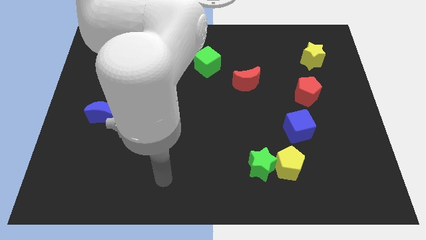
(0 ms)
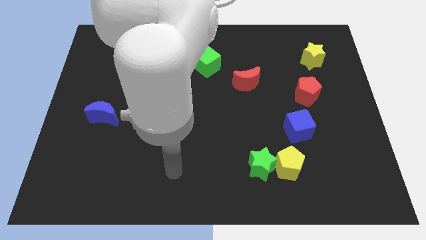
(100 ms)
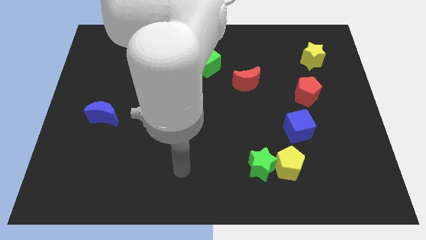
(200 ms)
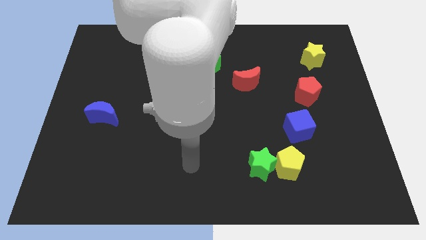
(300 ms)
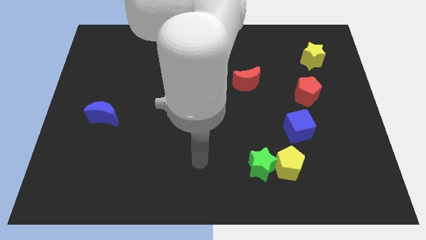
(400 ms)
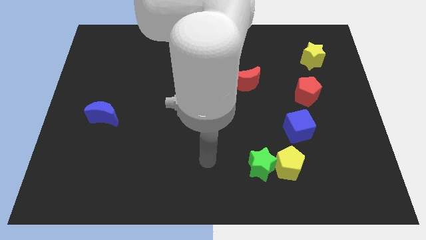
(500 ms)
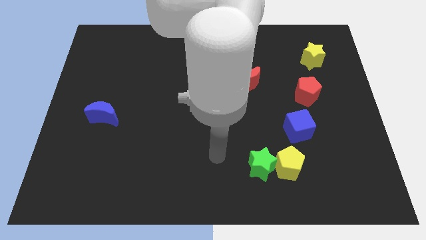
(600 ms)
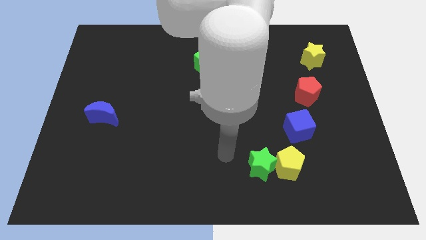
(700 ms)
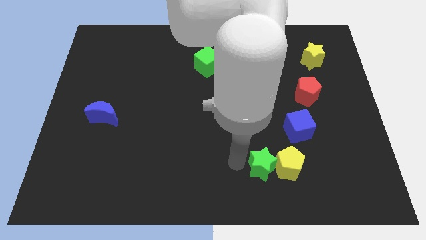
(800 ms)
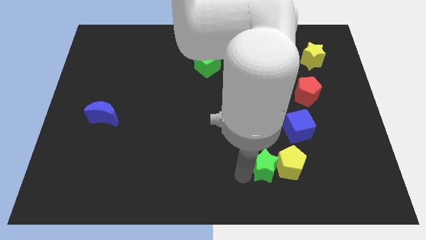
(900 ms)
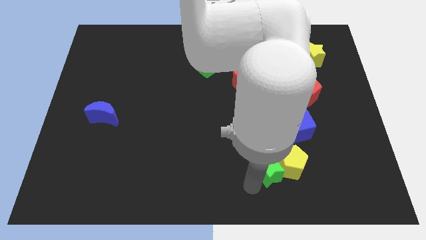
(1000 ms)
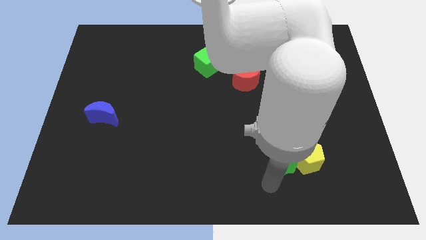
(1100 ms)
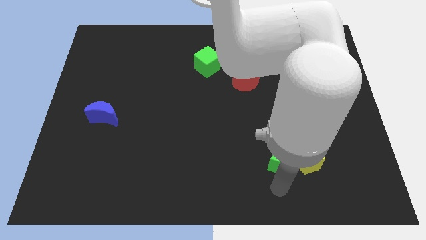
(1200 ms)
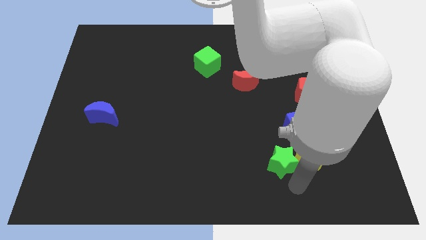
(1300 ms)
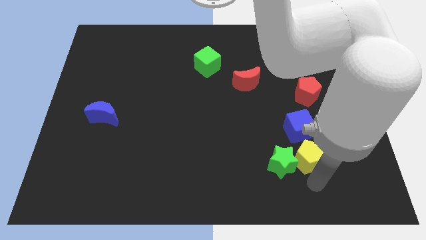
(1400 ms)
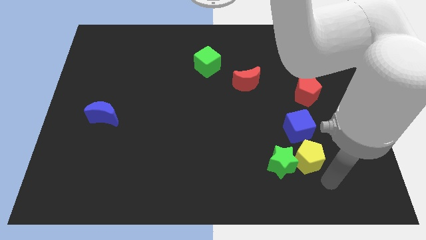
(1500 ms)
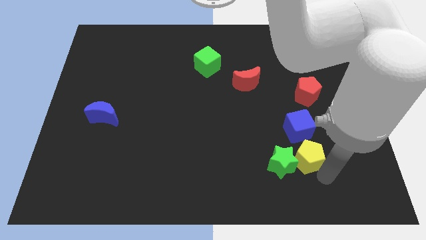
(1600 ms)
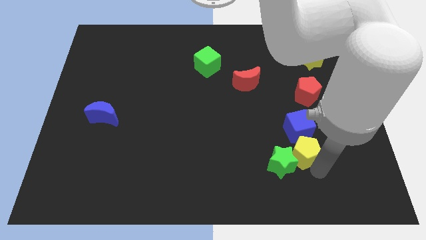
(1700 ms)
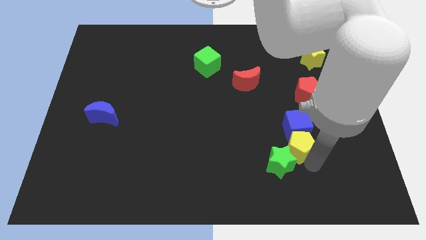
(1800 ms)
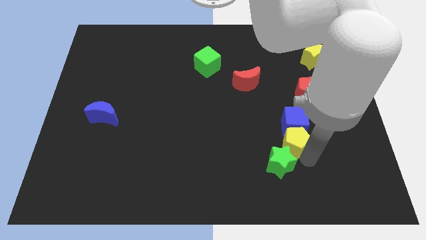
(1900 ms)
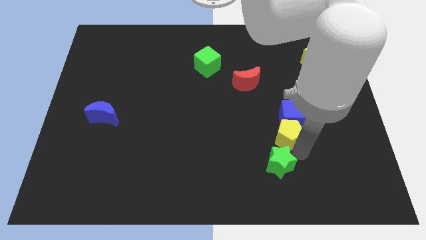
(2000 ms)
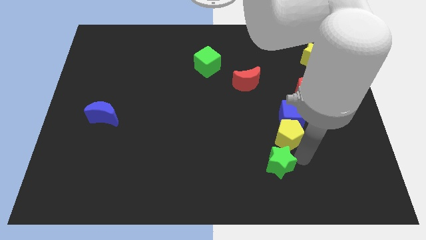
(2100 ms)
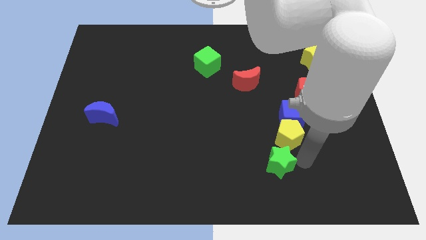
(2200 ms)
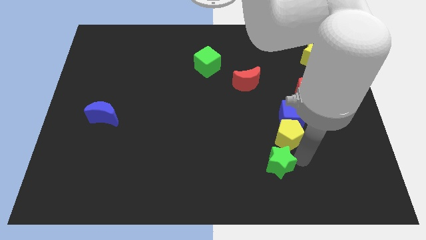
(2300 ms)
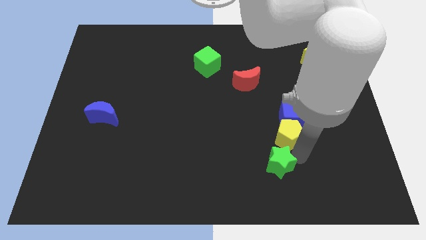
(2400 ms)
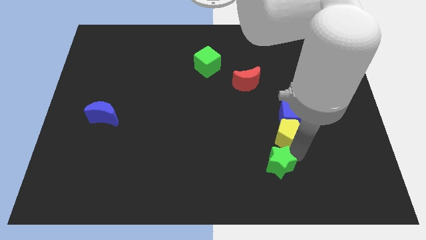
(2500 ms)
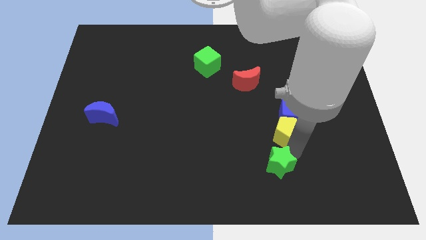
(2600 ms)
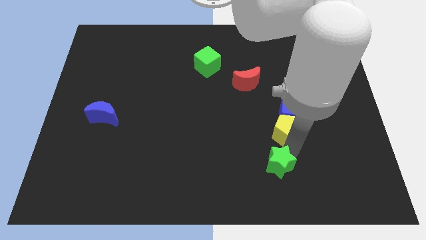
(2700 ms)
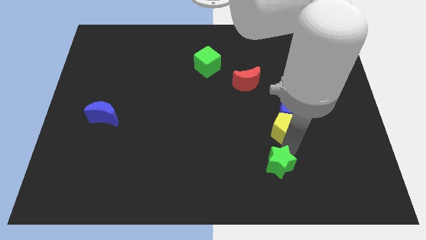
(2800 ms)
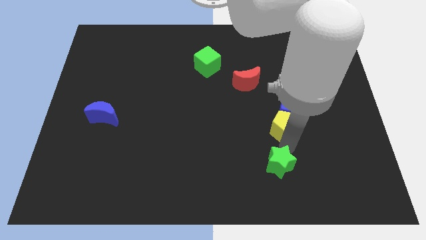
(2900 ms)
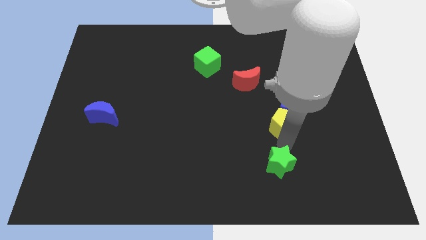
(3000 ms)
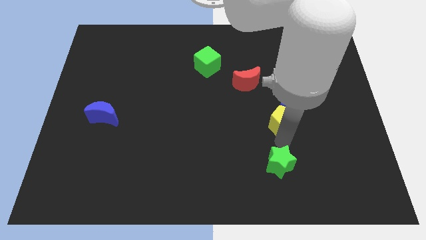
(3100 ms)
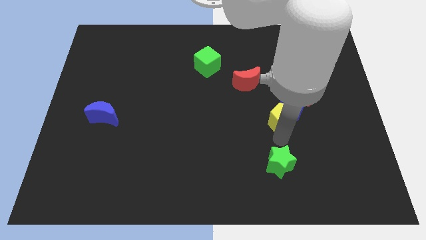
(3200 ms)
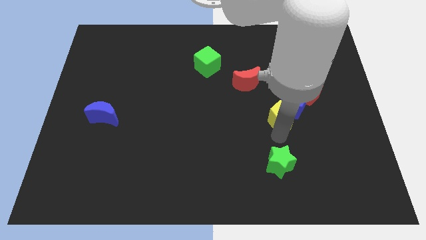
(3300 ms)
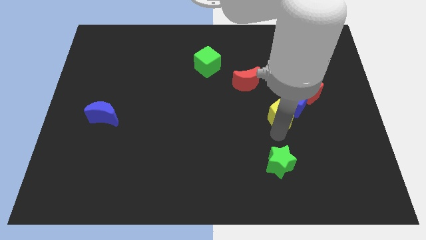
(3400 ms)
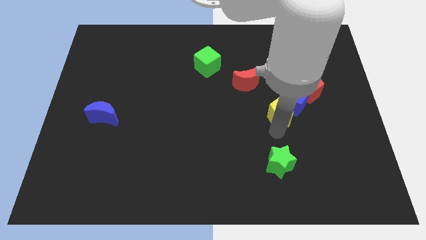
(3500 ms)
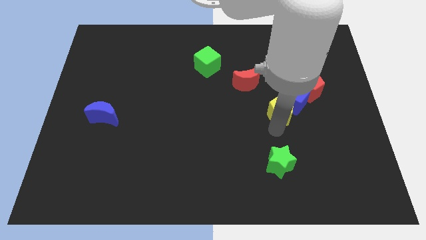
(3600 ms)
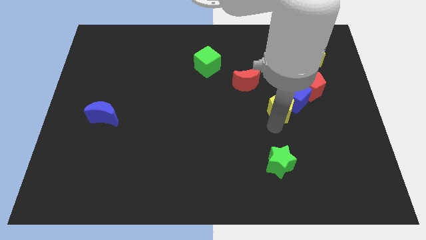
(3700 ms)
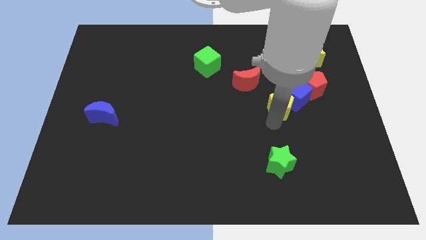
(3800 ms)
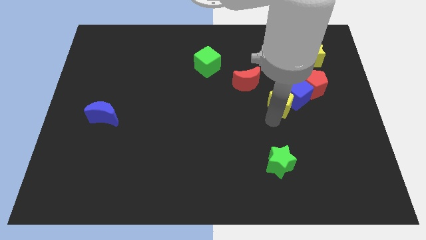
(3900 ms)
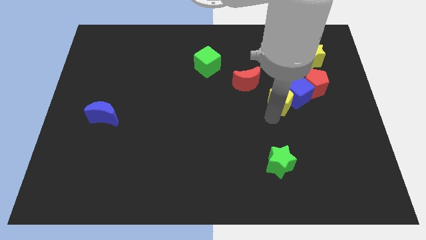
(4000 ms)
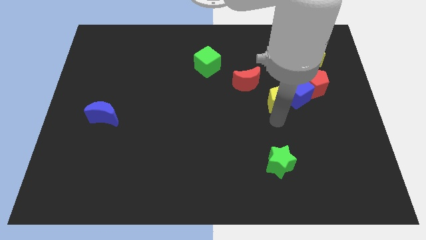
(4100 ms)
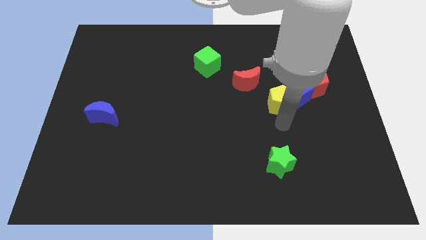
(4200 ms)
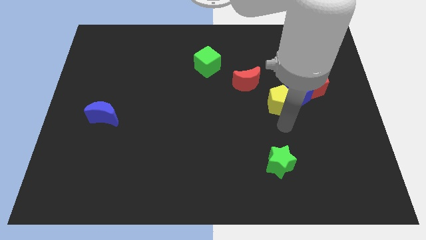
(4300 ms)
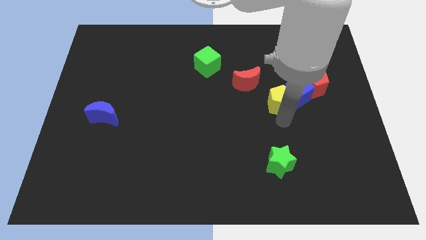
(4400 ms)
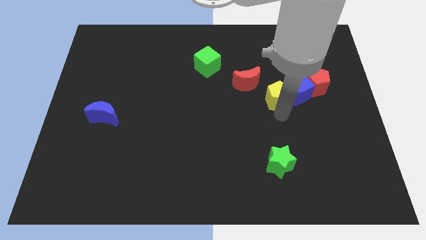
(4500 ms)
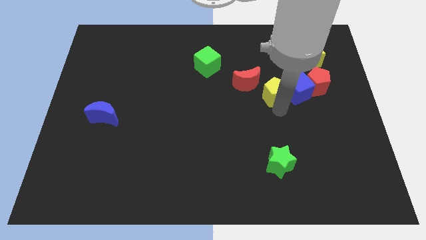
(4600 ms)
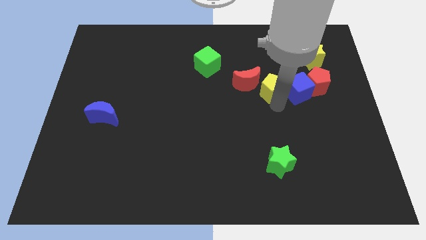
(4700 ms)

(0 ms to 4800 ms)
push the yellow pentagon upwards

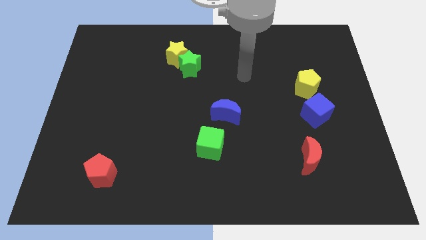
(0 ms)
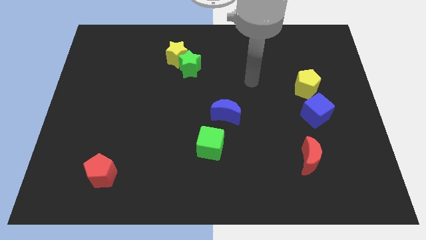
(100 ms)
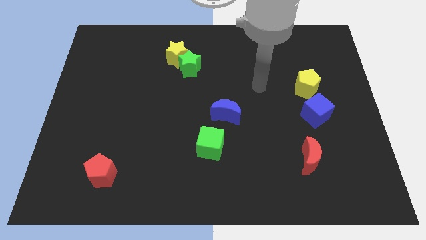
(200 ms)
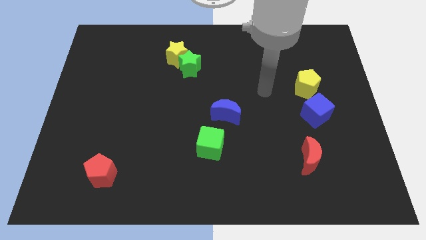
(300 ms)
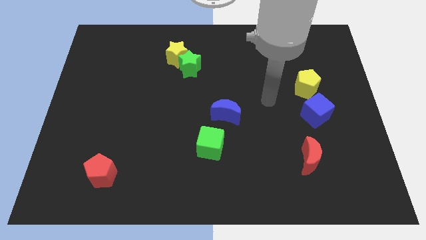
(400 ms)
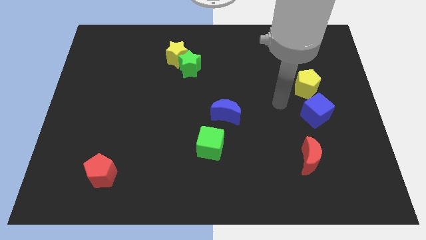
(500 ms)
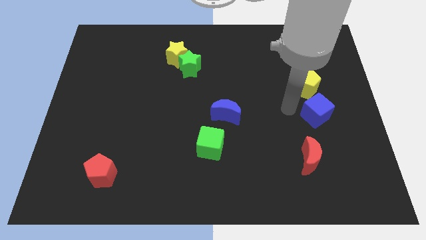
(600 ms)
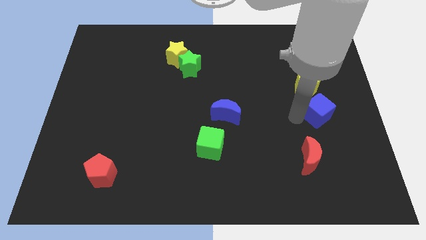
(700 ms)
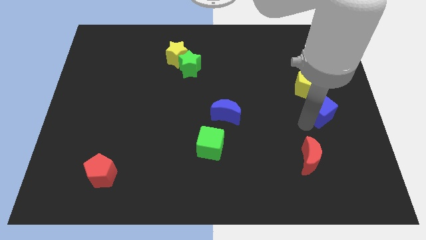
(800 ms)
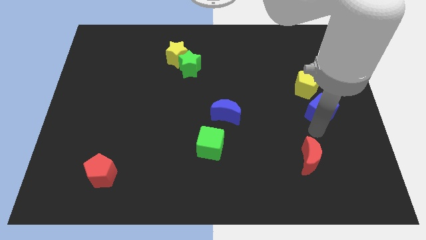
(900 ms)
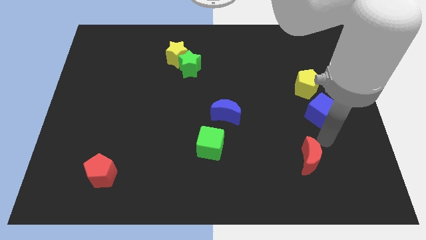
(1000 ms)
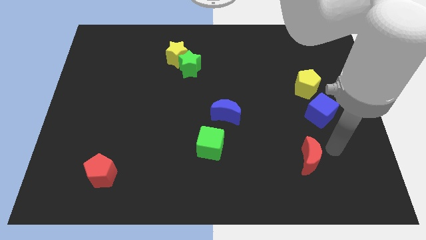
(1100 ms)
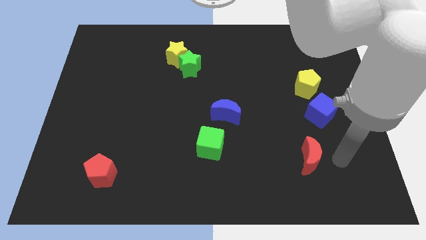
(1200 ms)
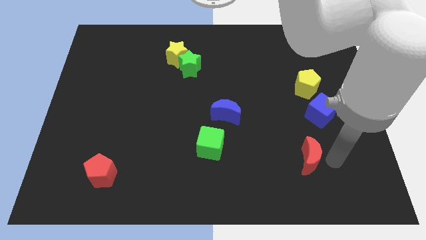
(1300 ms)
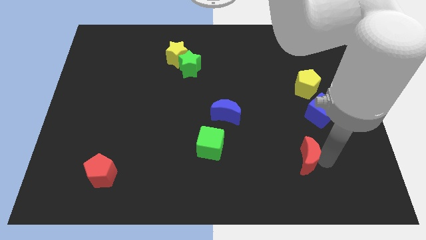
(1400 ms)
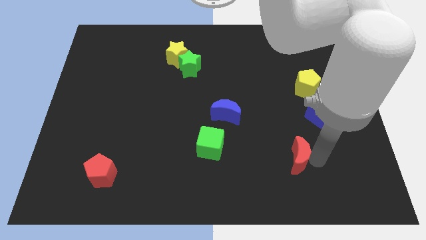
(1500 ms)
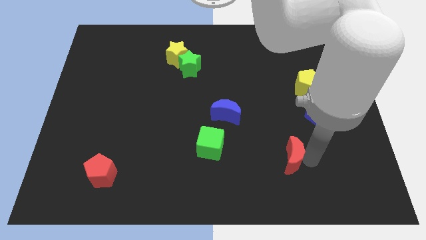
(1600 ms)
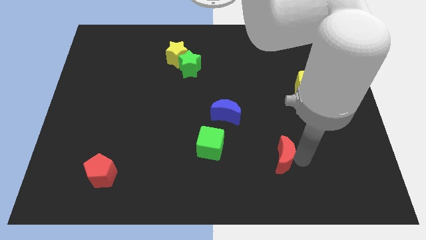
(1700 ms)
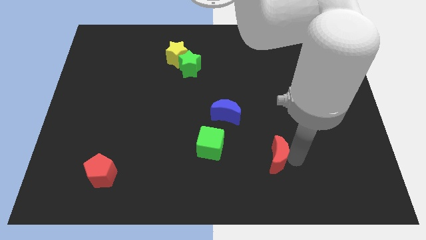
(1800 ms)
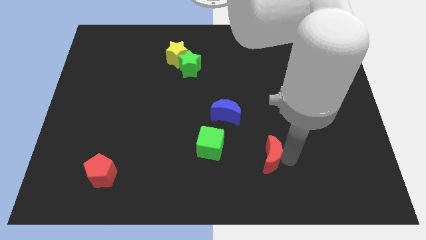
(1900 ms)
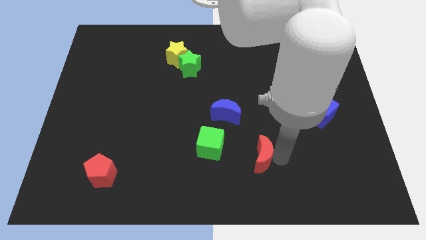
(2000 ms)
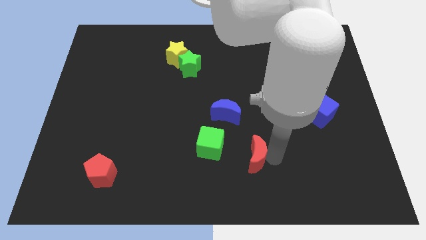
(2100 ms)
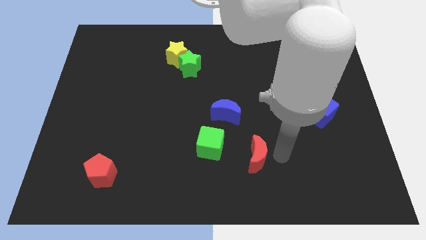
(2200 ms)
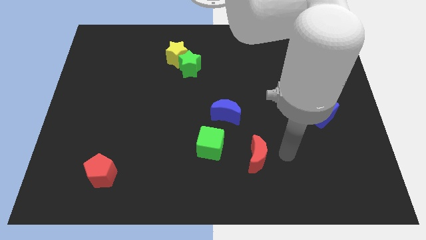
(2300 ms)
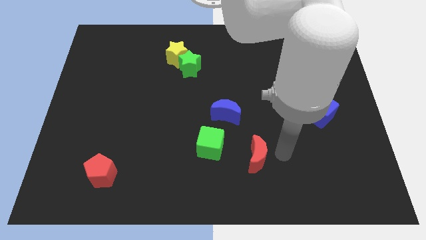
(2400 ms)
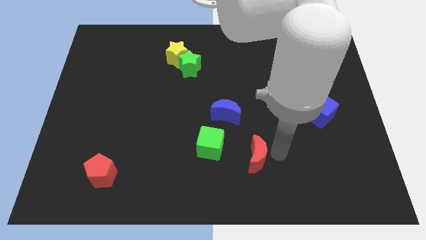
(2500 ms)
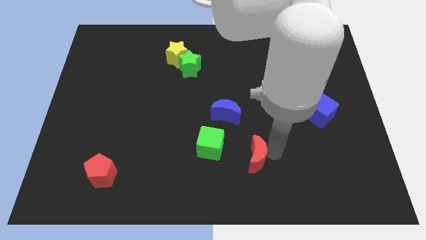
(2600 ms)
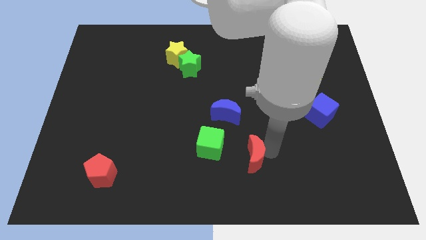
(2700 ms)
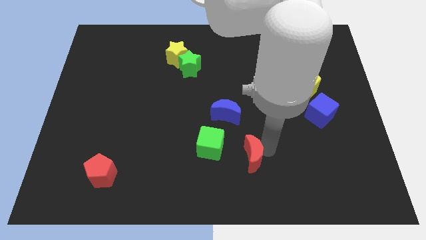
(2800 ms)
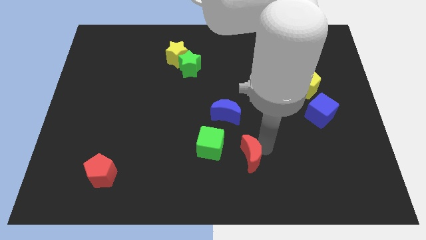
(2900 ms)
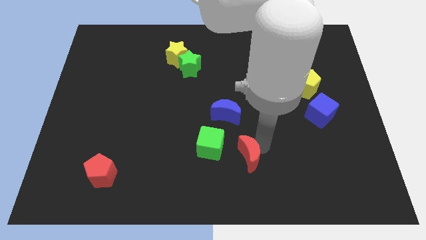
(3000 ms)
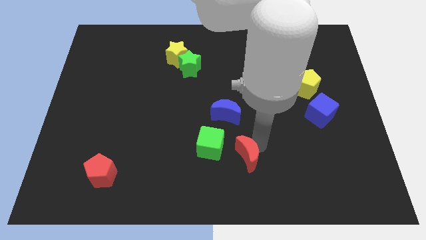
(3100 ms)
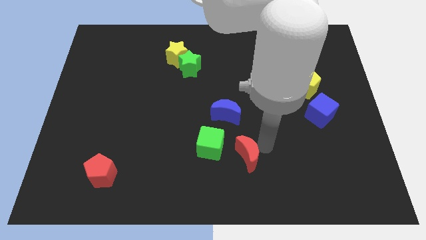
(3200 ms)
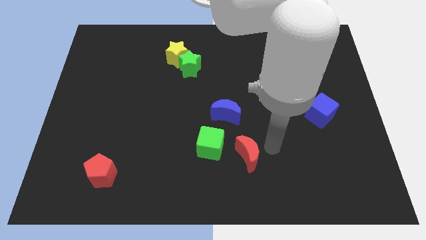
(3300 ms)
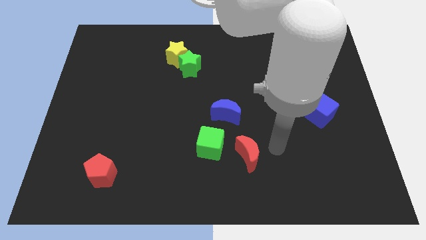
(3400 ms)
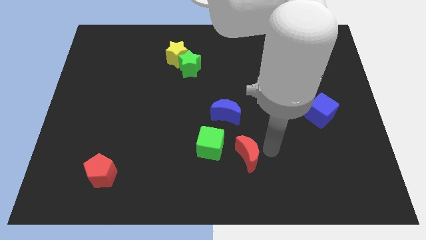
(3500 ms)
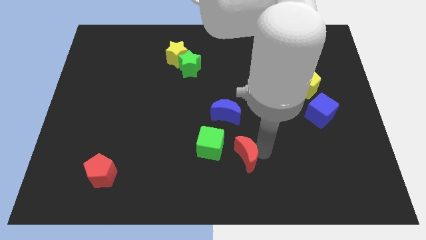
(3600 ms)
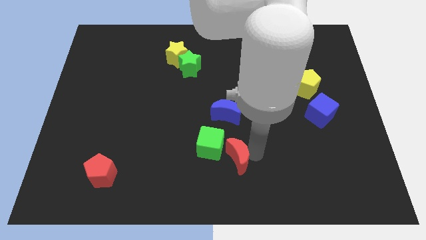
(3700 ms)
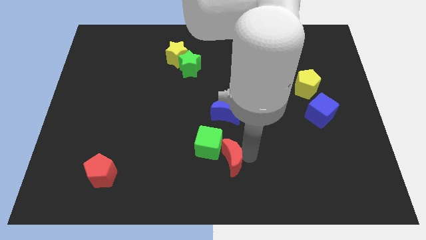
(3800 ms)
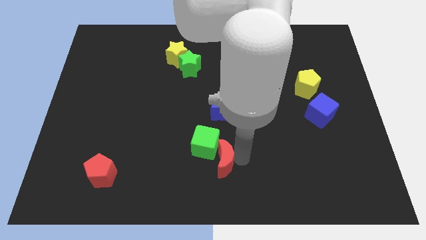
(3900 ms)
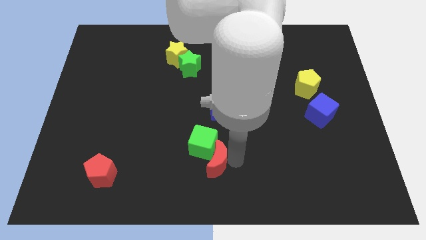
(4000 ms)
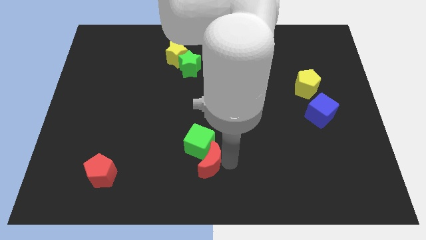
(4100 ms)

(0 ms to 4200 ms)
push the red moon left
